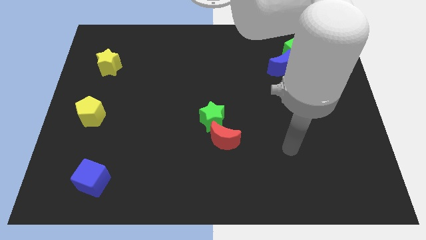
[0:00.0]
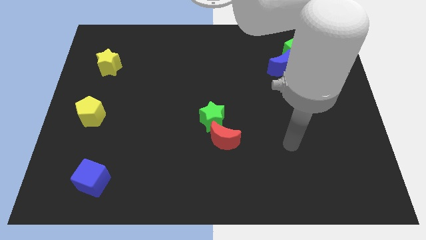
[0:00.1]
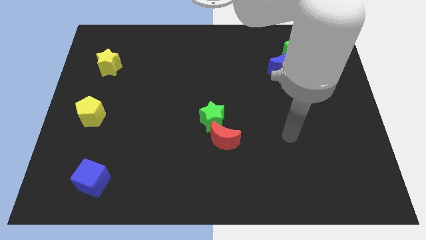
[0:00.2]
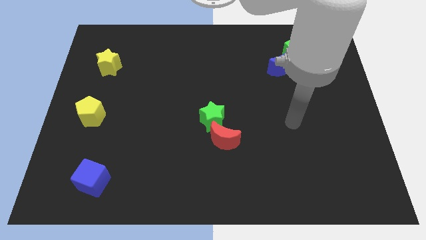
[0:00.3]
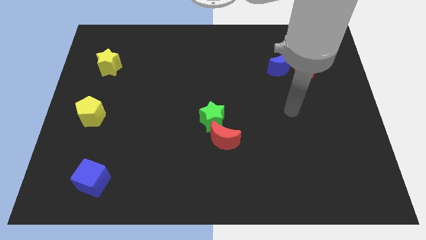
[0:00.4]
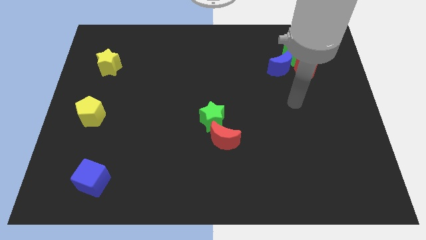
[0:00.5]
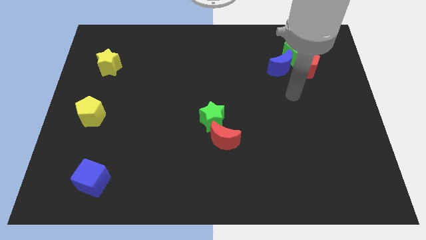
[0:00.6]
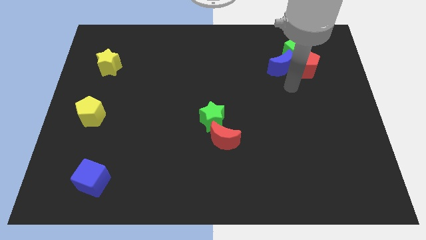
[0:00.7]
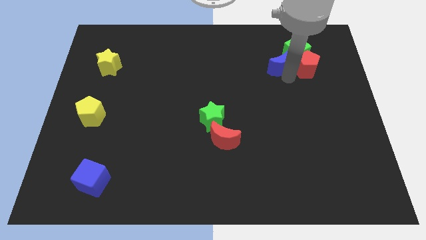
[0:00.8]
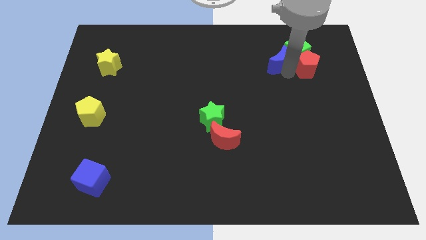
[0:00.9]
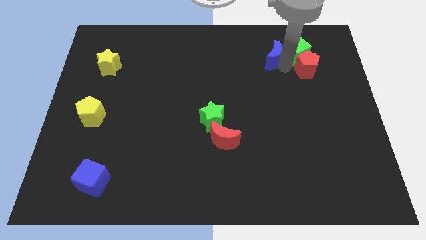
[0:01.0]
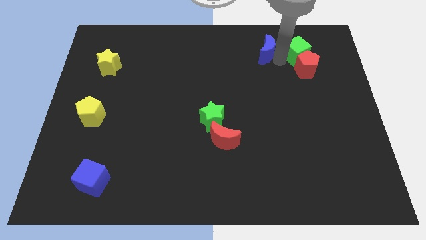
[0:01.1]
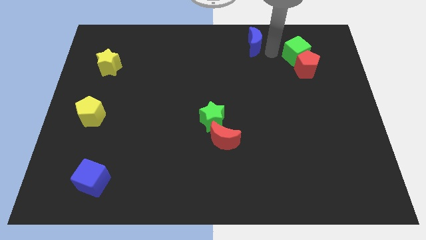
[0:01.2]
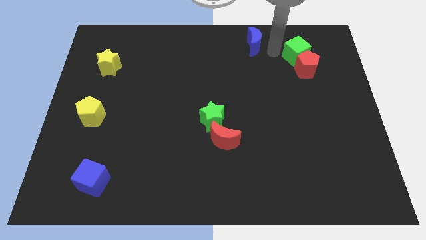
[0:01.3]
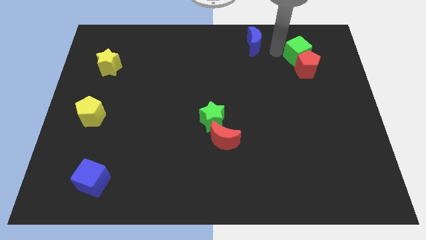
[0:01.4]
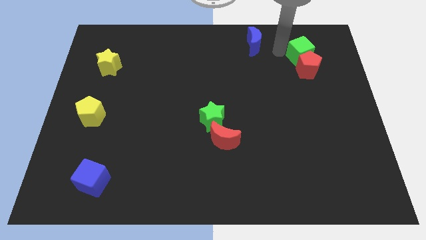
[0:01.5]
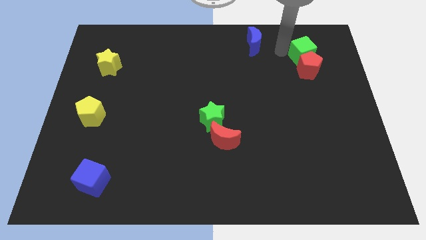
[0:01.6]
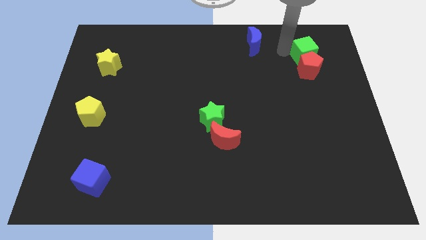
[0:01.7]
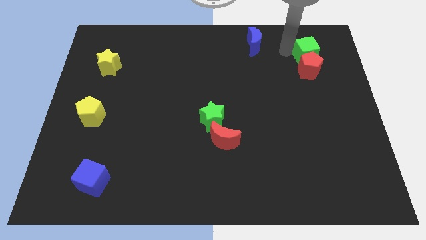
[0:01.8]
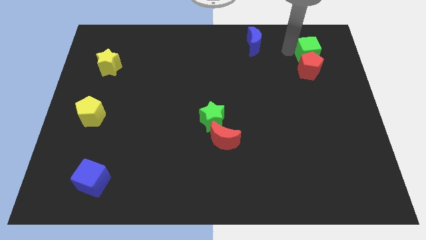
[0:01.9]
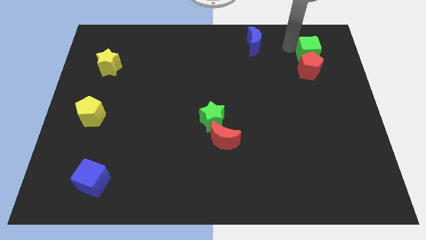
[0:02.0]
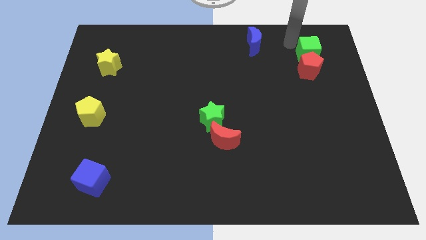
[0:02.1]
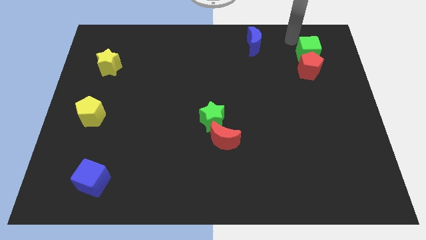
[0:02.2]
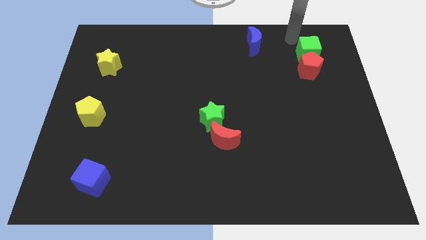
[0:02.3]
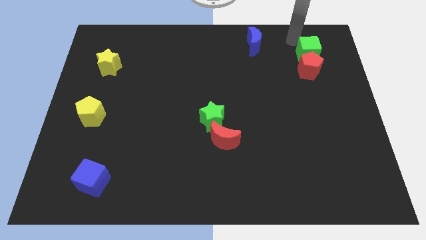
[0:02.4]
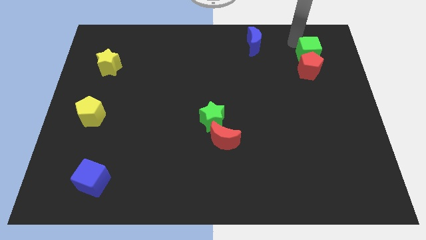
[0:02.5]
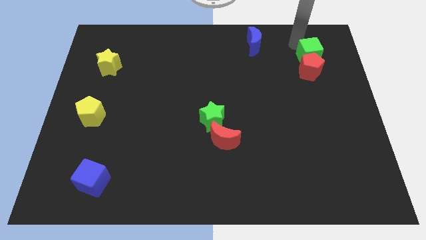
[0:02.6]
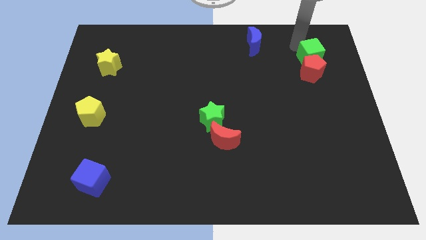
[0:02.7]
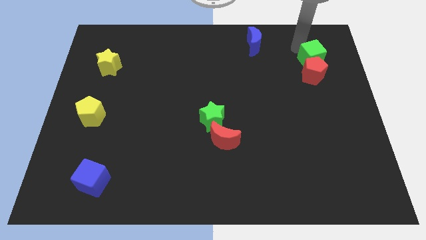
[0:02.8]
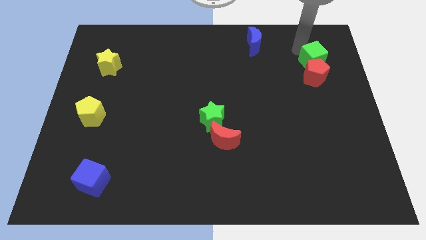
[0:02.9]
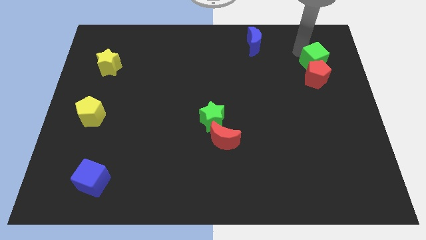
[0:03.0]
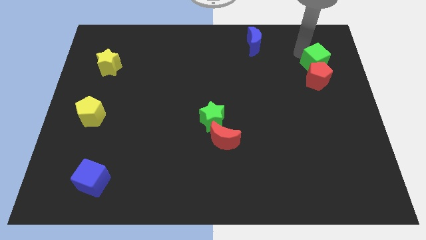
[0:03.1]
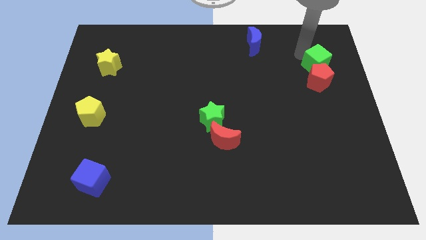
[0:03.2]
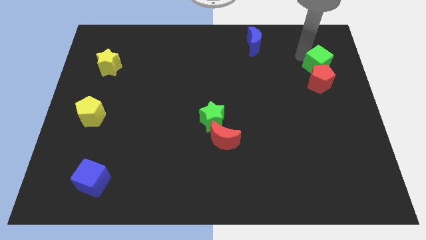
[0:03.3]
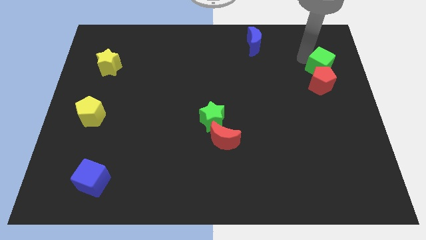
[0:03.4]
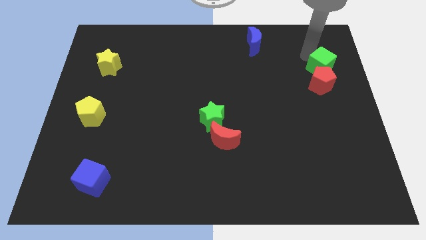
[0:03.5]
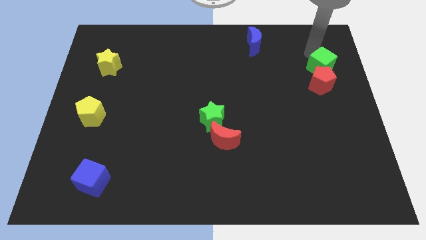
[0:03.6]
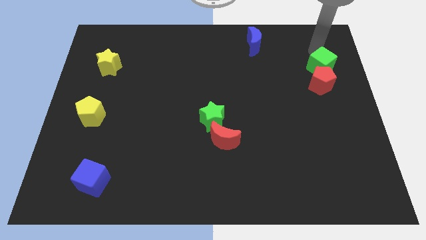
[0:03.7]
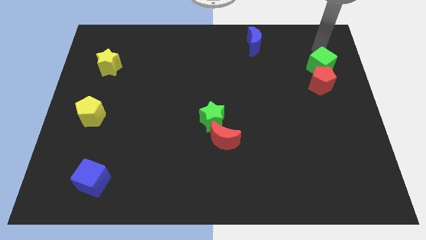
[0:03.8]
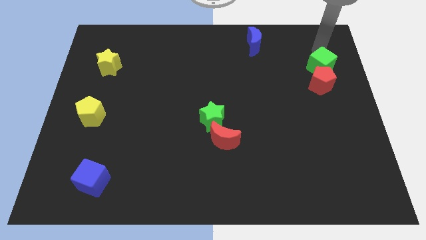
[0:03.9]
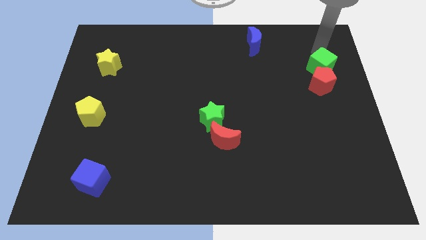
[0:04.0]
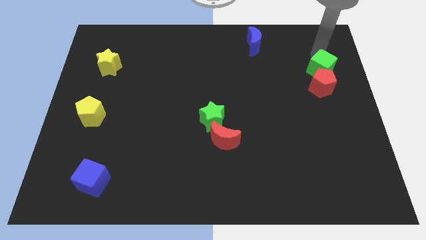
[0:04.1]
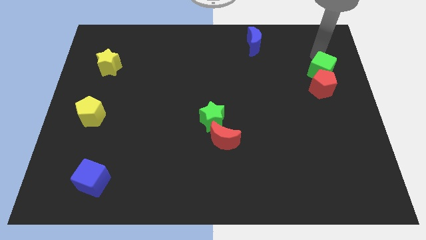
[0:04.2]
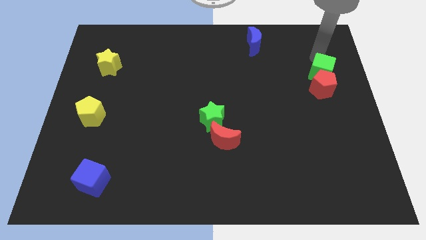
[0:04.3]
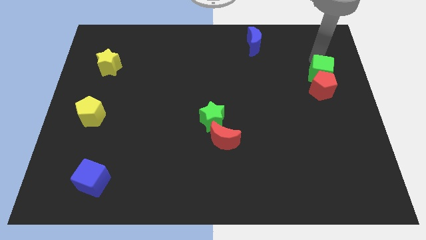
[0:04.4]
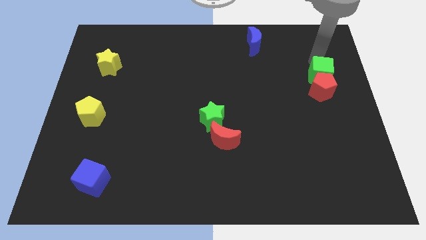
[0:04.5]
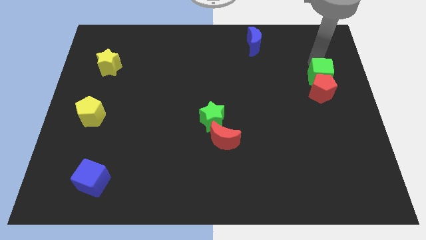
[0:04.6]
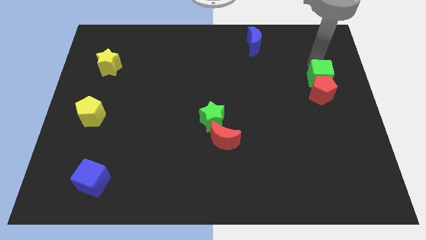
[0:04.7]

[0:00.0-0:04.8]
push the green cube a little bit downwards

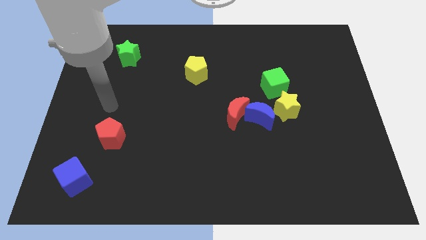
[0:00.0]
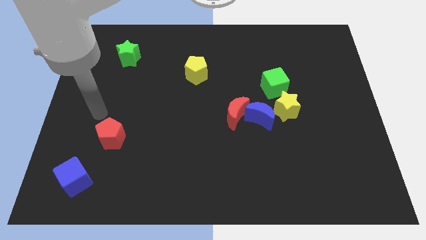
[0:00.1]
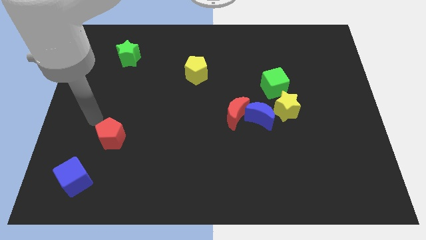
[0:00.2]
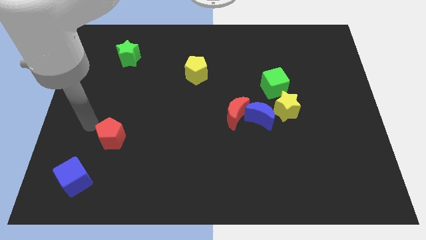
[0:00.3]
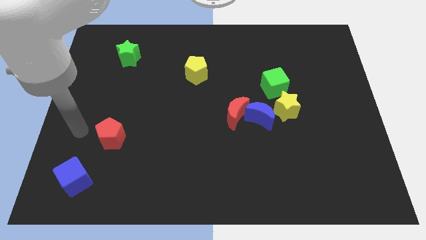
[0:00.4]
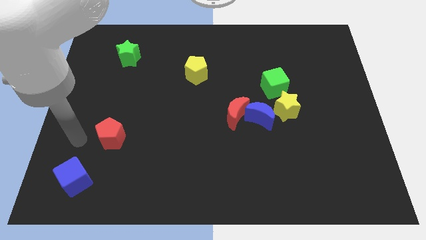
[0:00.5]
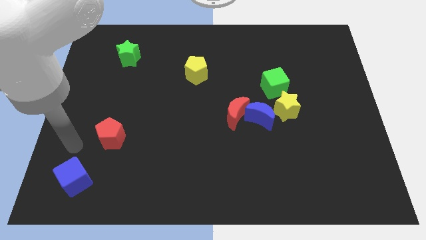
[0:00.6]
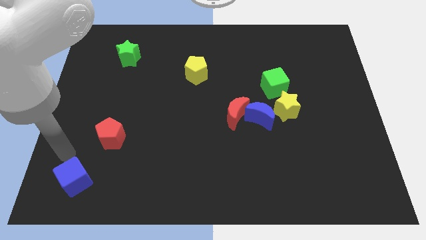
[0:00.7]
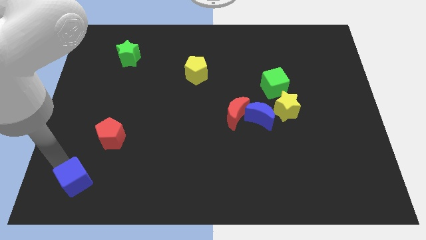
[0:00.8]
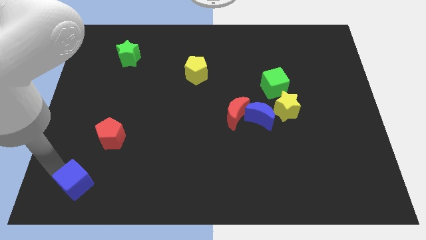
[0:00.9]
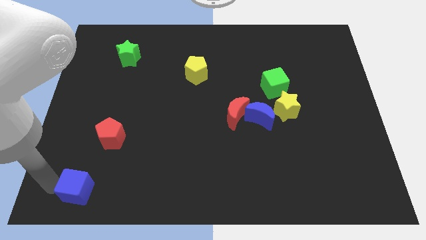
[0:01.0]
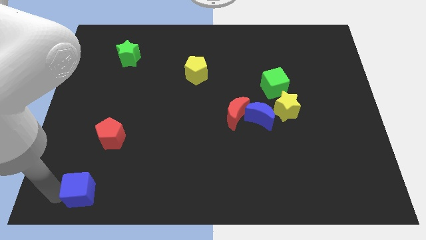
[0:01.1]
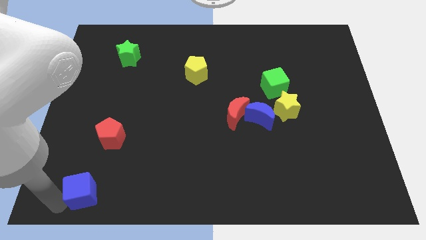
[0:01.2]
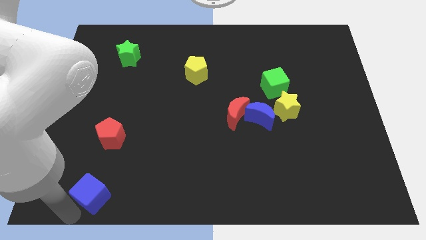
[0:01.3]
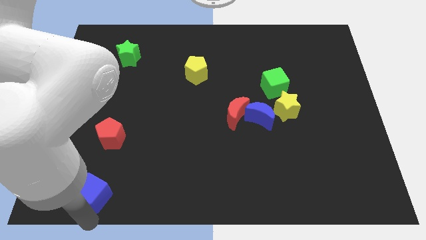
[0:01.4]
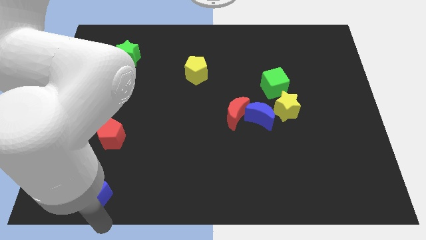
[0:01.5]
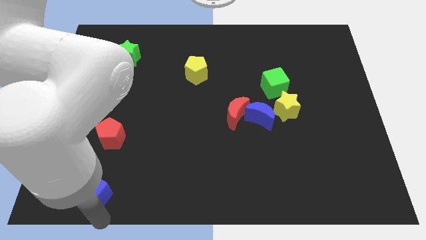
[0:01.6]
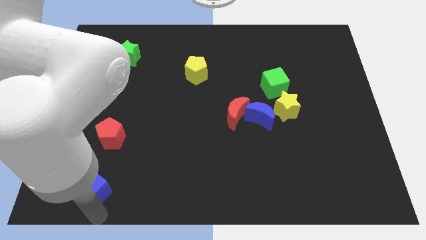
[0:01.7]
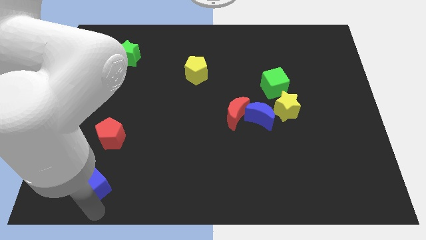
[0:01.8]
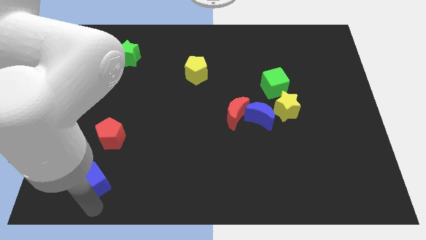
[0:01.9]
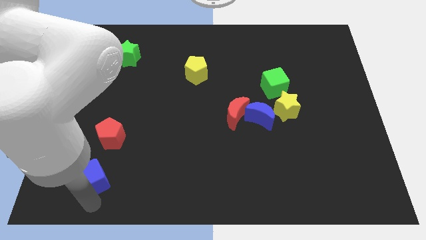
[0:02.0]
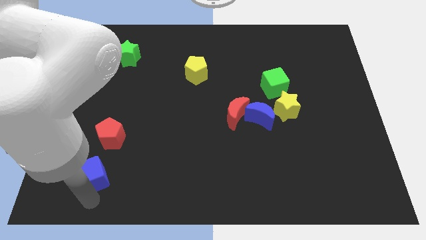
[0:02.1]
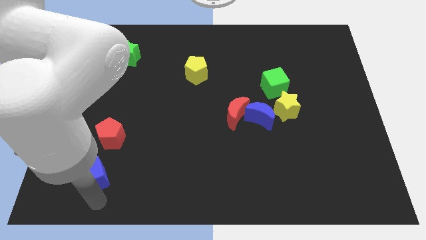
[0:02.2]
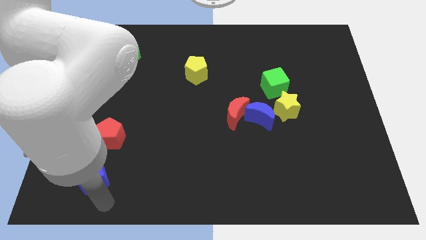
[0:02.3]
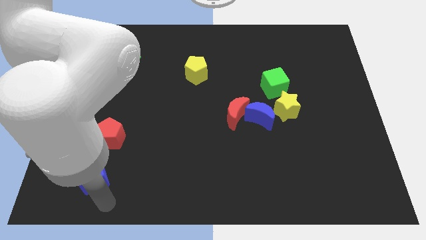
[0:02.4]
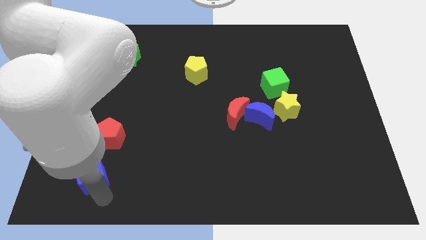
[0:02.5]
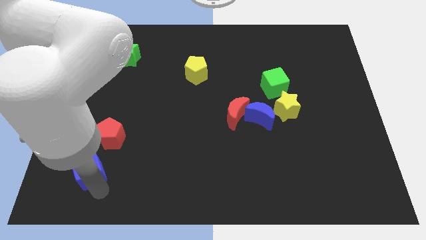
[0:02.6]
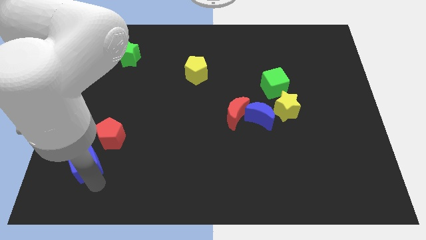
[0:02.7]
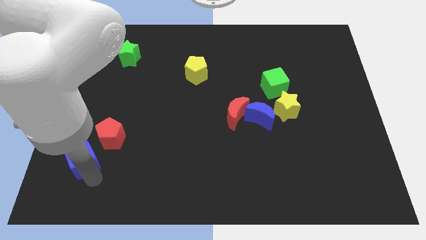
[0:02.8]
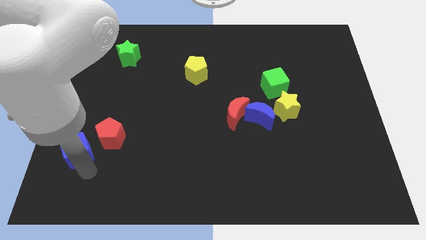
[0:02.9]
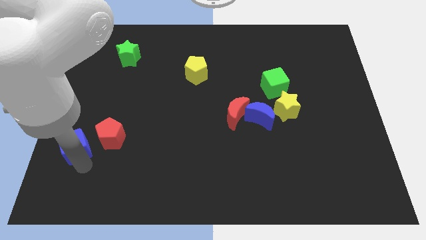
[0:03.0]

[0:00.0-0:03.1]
move the blue cube a little up

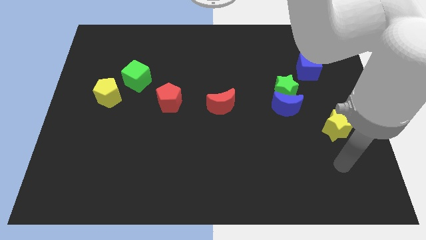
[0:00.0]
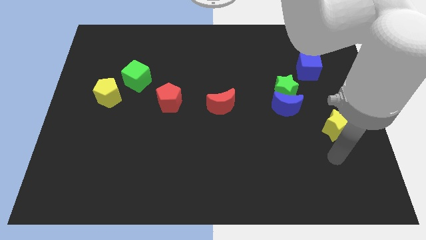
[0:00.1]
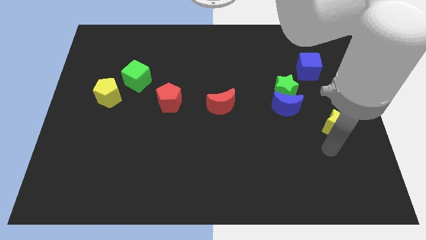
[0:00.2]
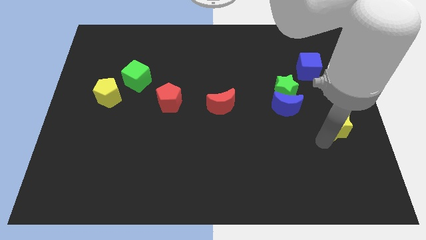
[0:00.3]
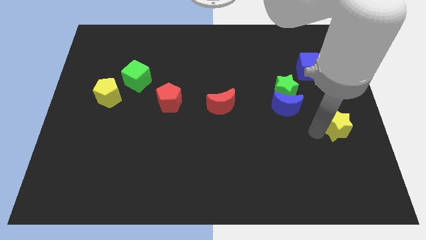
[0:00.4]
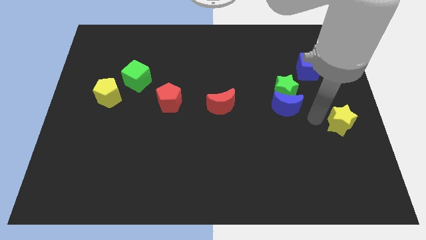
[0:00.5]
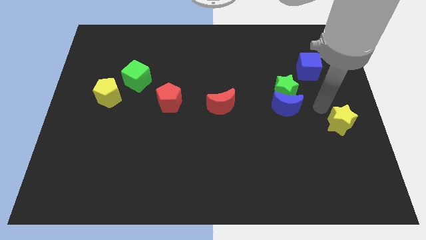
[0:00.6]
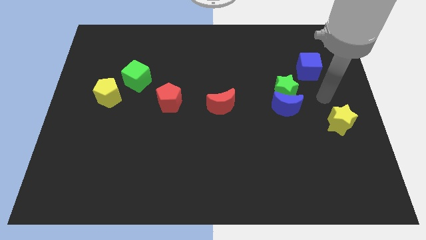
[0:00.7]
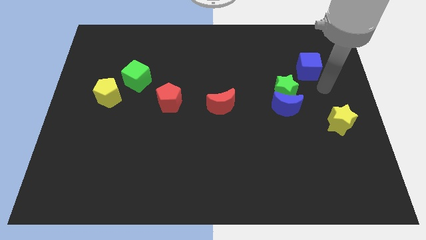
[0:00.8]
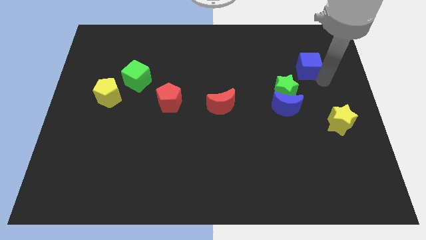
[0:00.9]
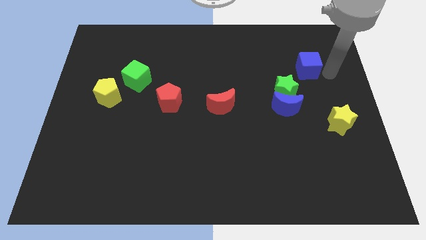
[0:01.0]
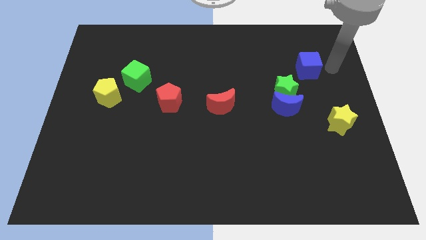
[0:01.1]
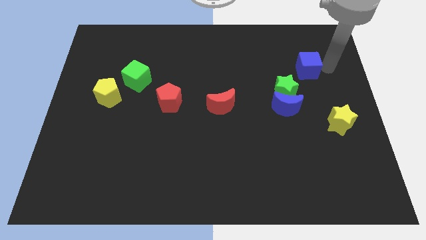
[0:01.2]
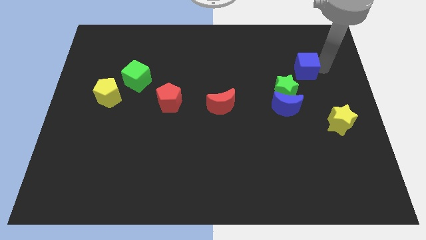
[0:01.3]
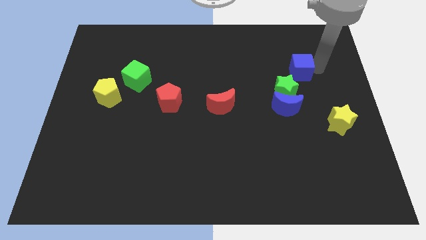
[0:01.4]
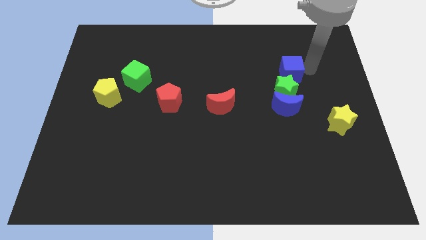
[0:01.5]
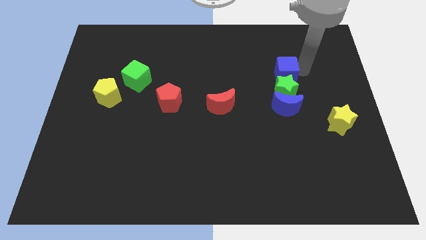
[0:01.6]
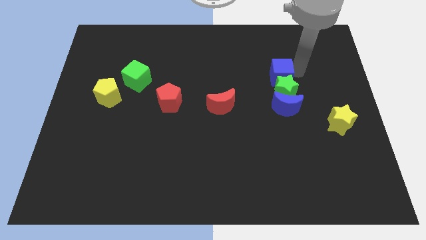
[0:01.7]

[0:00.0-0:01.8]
slightly move the blue cube left
